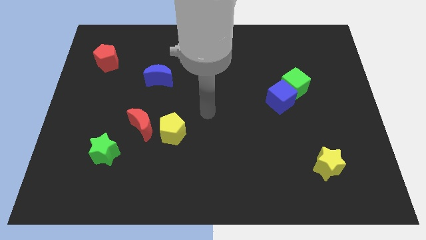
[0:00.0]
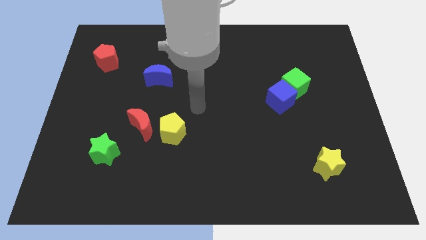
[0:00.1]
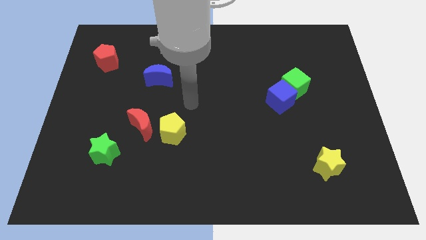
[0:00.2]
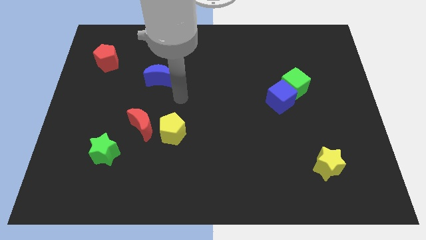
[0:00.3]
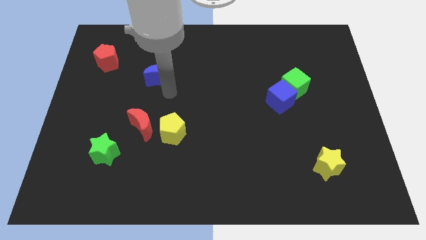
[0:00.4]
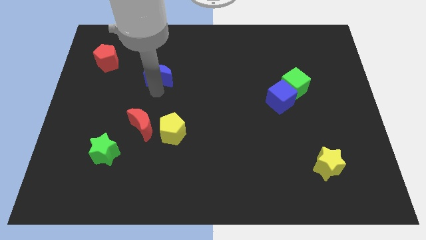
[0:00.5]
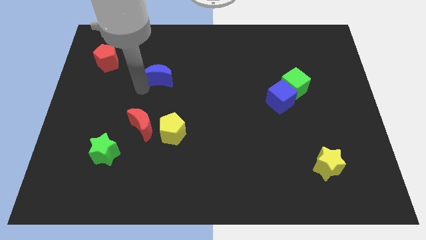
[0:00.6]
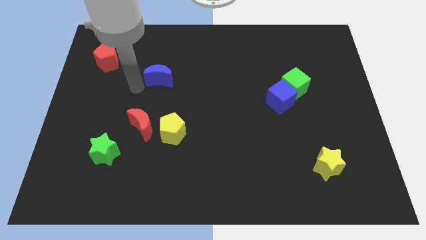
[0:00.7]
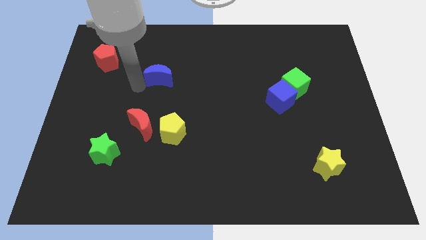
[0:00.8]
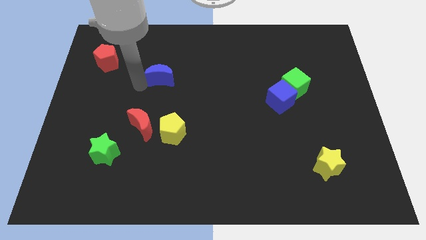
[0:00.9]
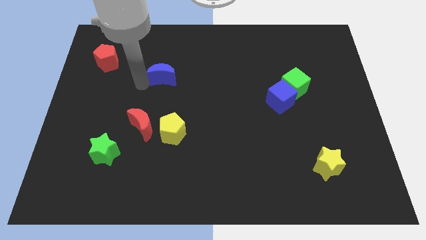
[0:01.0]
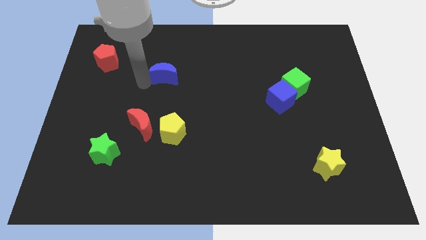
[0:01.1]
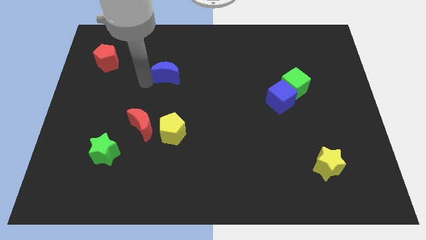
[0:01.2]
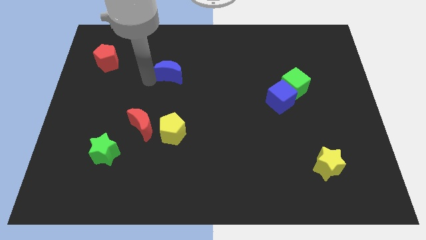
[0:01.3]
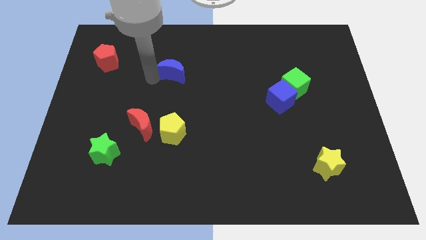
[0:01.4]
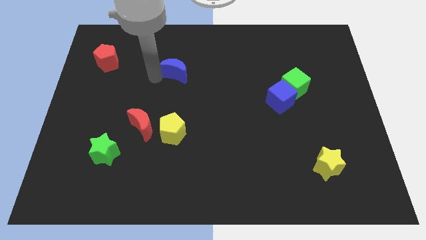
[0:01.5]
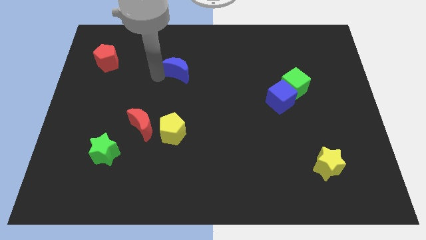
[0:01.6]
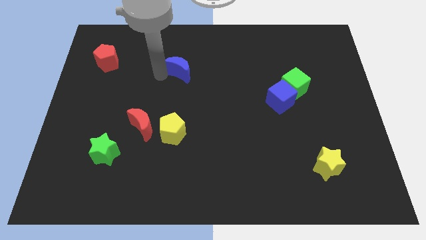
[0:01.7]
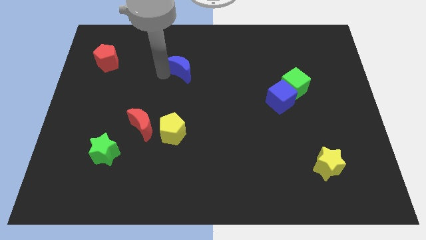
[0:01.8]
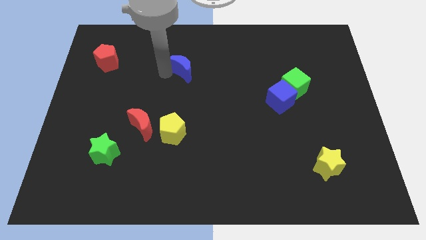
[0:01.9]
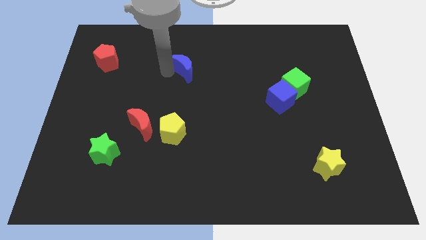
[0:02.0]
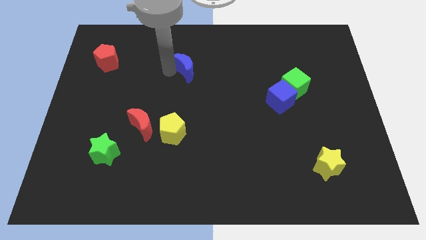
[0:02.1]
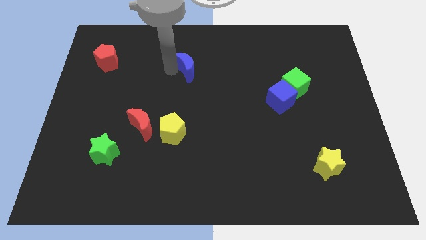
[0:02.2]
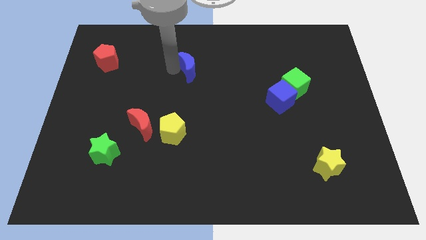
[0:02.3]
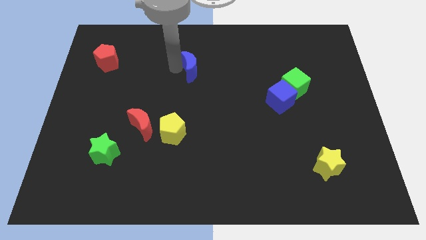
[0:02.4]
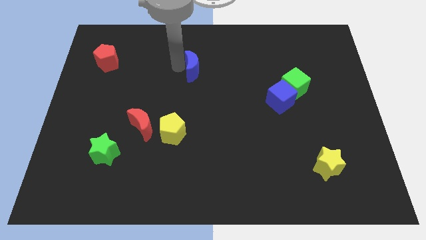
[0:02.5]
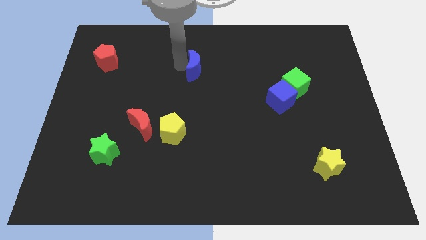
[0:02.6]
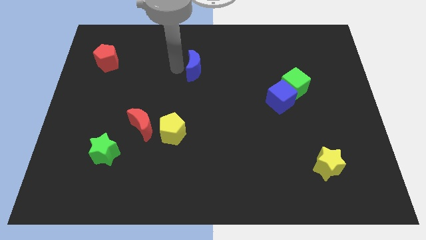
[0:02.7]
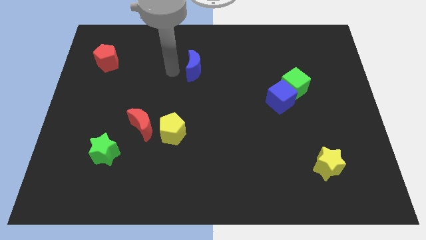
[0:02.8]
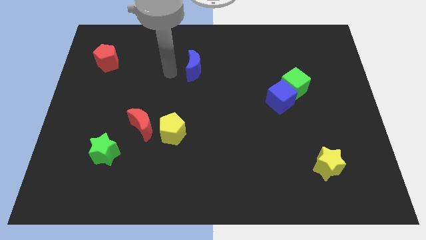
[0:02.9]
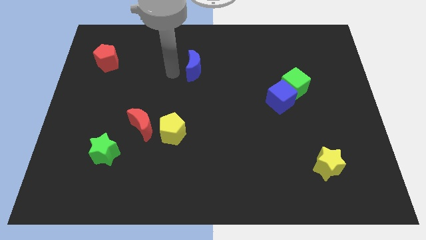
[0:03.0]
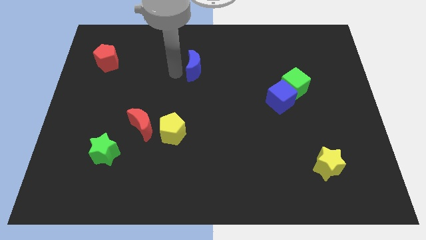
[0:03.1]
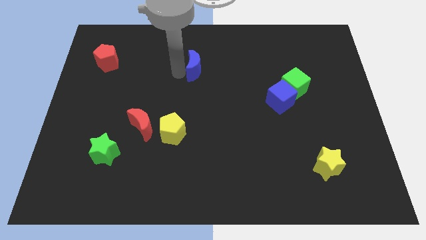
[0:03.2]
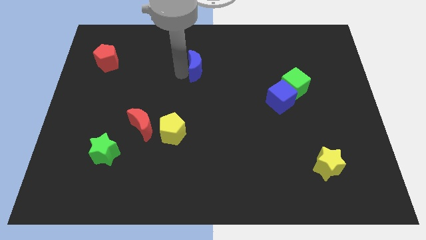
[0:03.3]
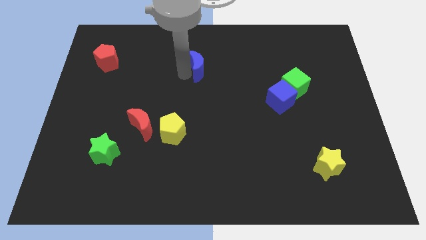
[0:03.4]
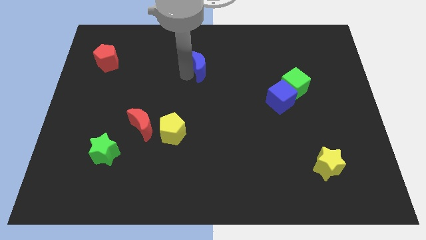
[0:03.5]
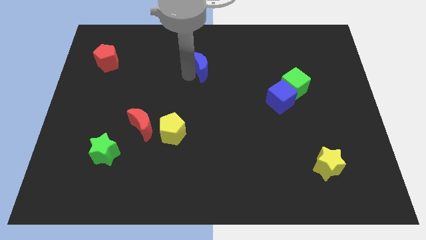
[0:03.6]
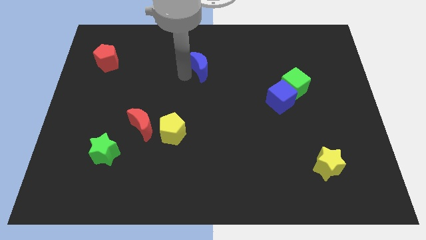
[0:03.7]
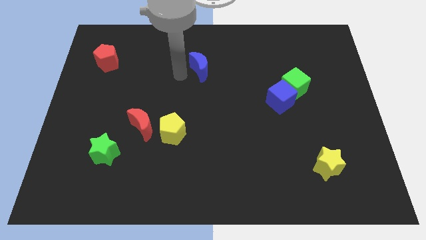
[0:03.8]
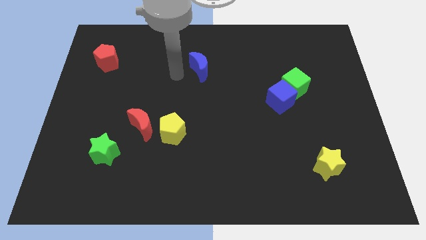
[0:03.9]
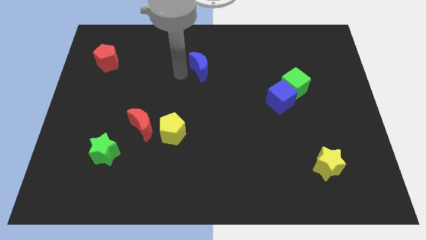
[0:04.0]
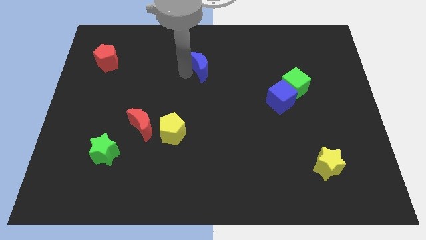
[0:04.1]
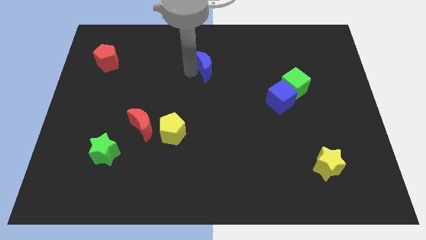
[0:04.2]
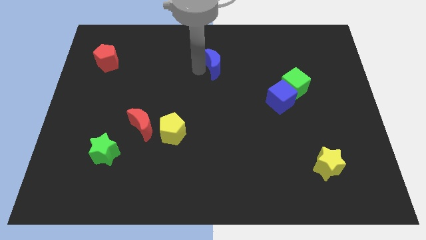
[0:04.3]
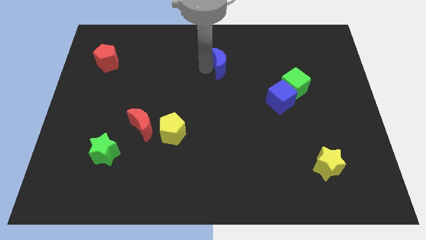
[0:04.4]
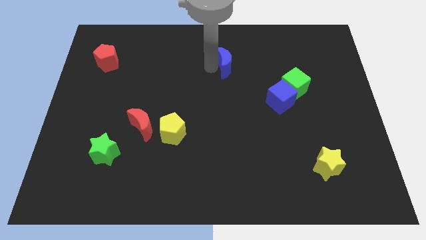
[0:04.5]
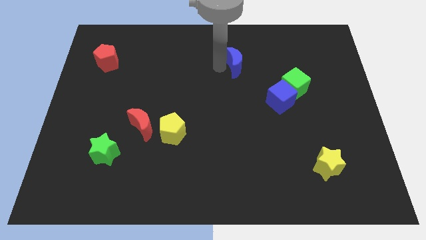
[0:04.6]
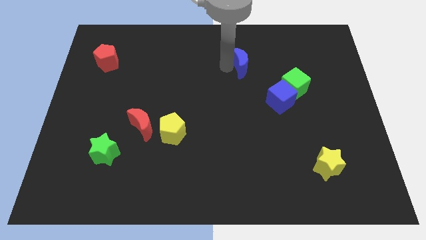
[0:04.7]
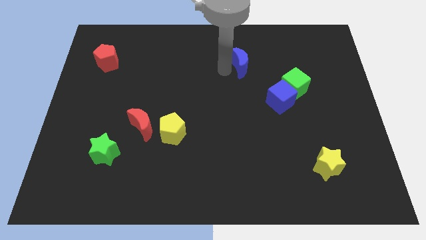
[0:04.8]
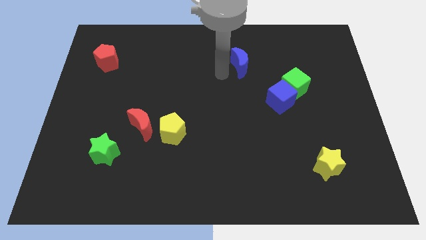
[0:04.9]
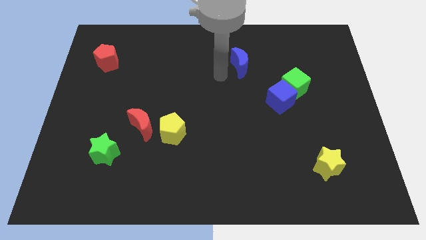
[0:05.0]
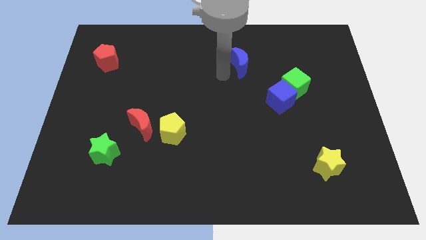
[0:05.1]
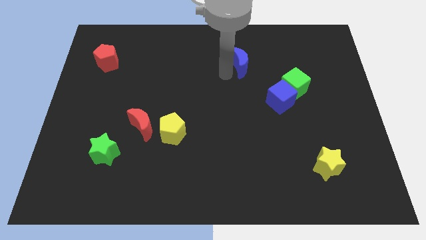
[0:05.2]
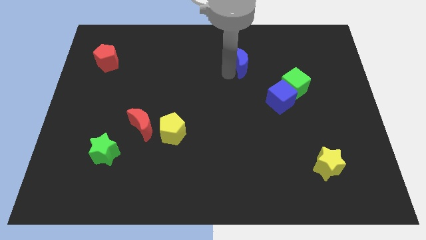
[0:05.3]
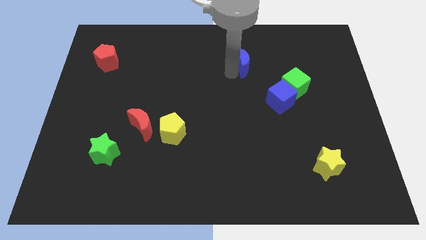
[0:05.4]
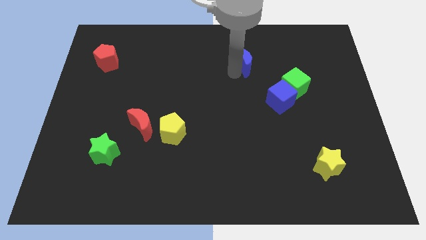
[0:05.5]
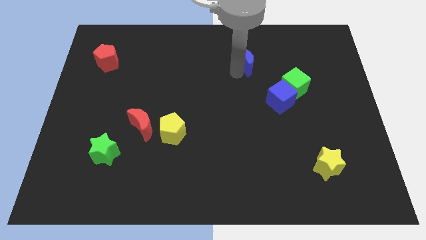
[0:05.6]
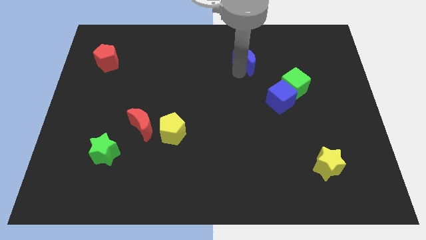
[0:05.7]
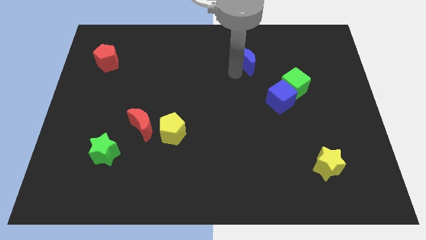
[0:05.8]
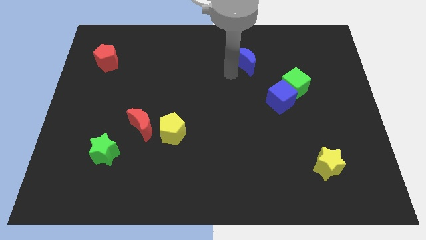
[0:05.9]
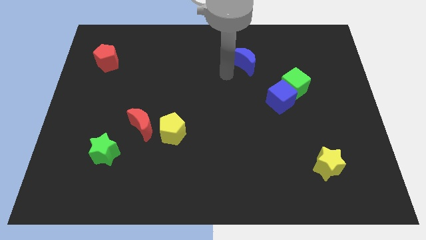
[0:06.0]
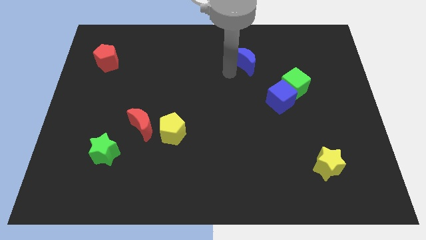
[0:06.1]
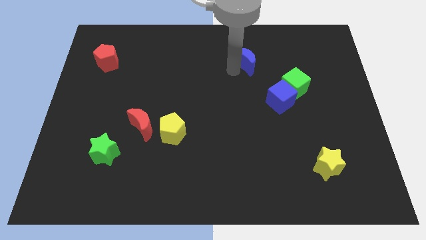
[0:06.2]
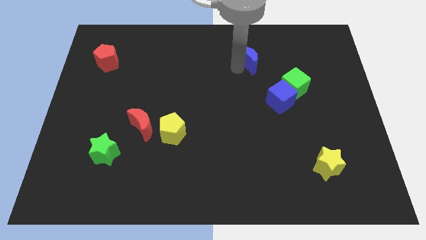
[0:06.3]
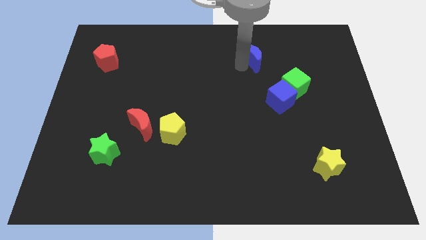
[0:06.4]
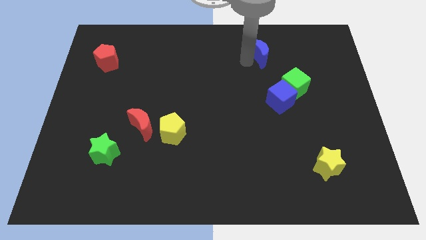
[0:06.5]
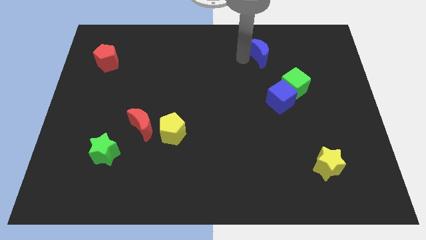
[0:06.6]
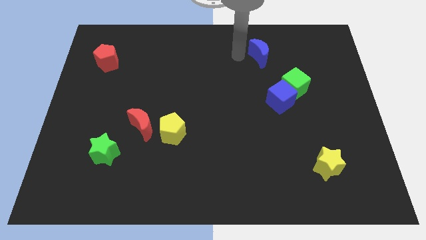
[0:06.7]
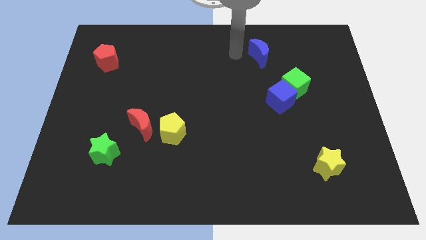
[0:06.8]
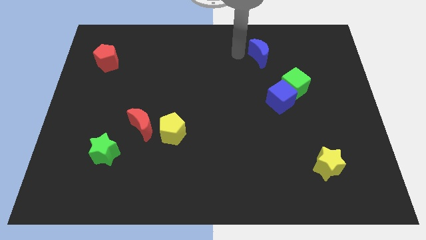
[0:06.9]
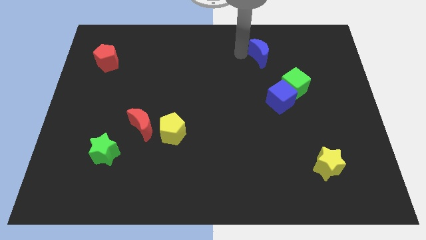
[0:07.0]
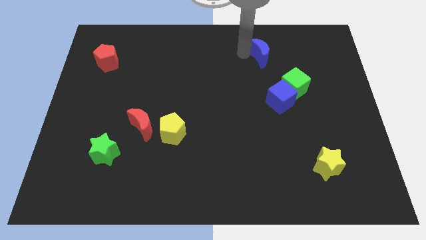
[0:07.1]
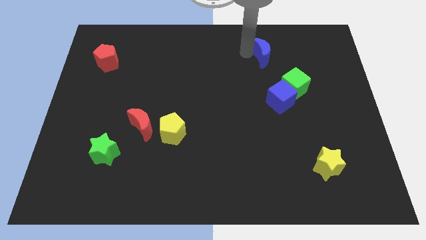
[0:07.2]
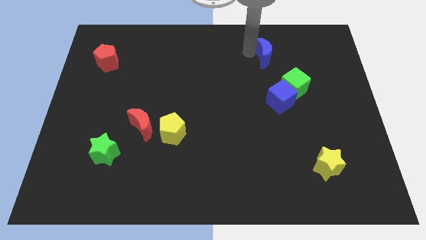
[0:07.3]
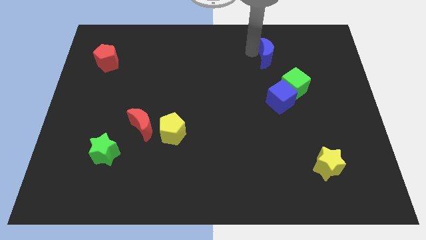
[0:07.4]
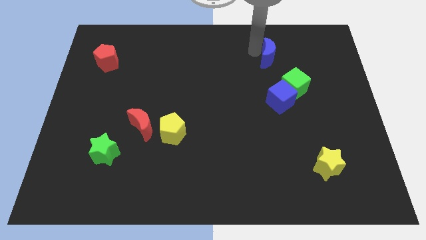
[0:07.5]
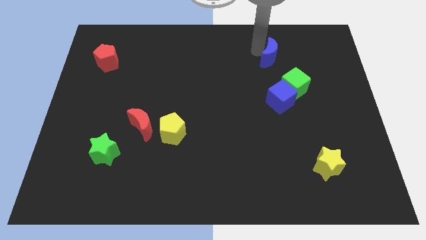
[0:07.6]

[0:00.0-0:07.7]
slide the blue moon to the top of the green cube

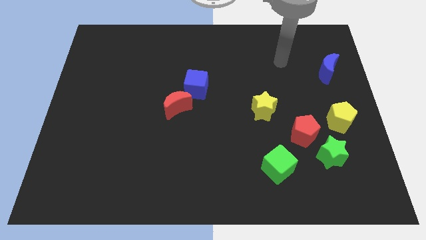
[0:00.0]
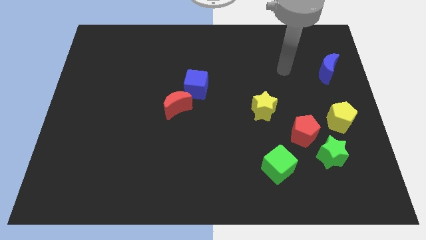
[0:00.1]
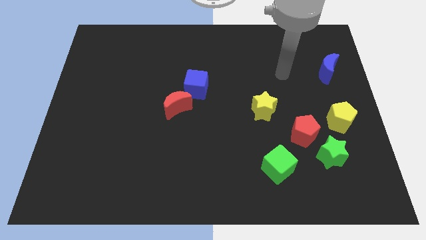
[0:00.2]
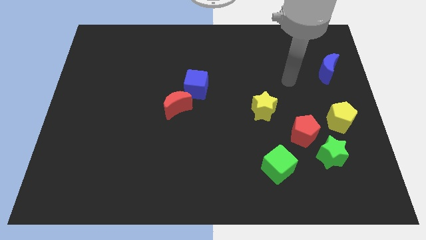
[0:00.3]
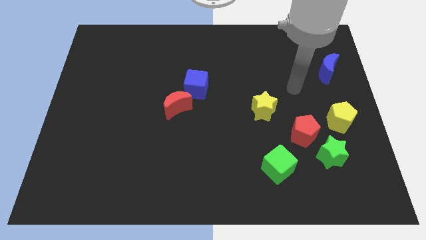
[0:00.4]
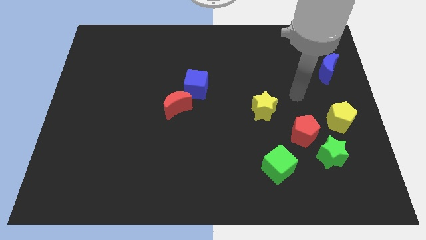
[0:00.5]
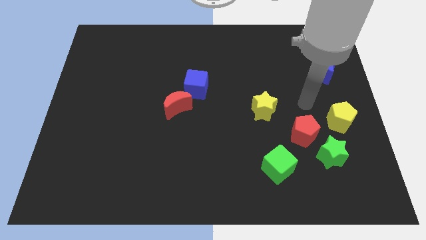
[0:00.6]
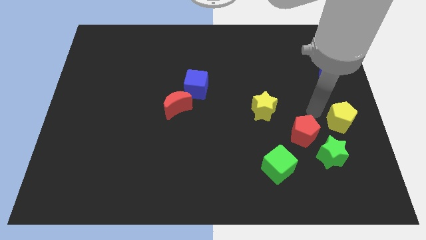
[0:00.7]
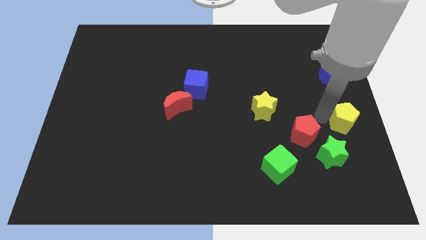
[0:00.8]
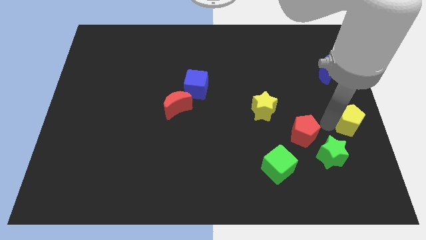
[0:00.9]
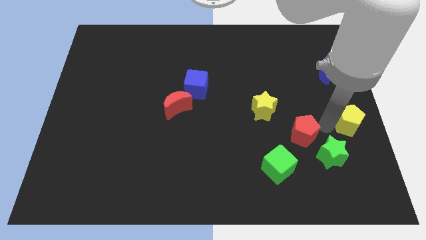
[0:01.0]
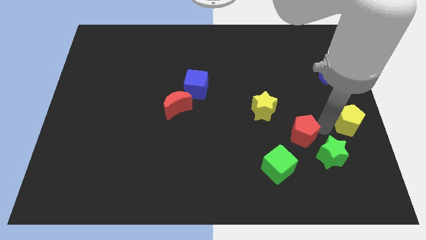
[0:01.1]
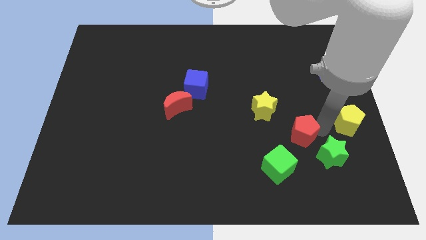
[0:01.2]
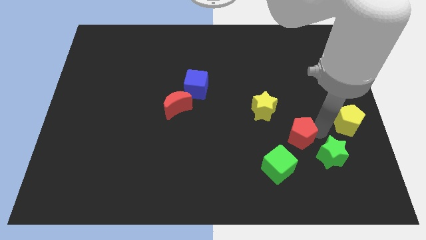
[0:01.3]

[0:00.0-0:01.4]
put the red pentagon to the left of the green star
